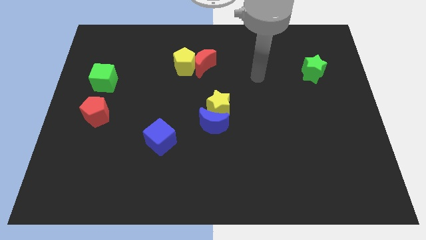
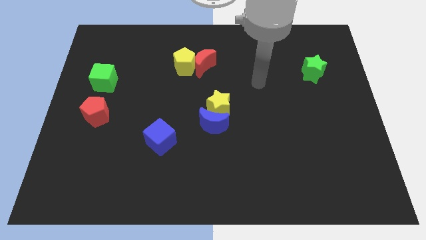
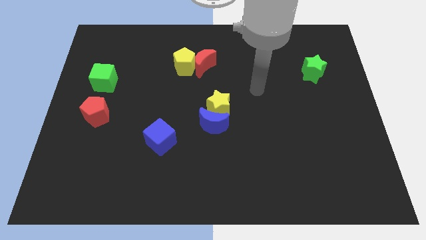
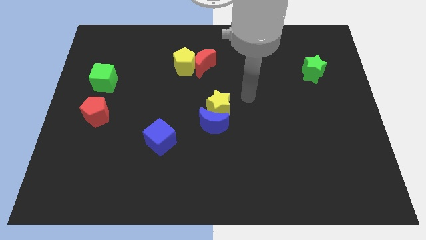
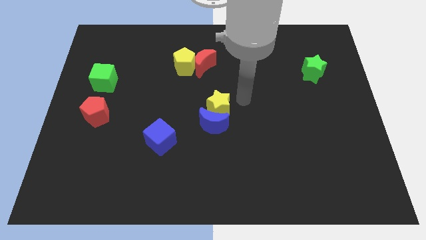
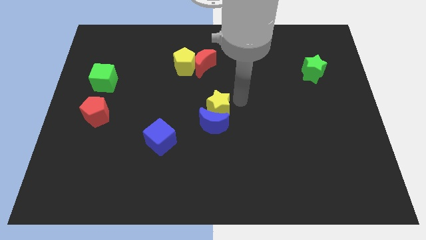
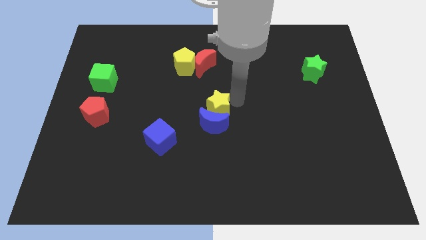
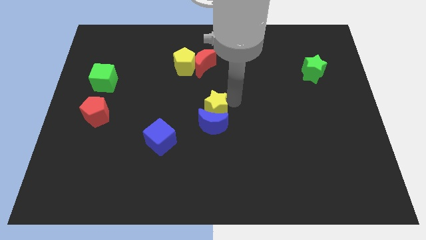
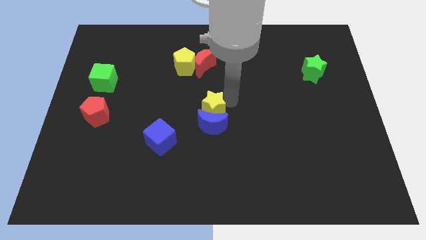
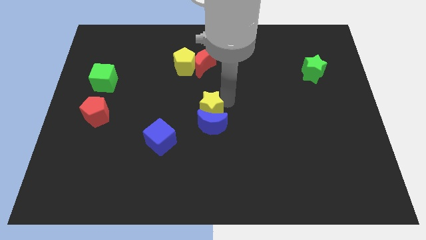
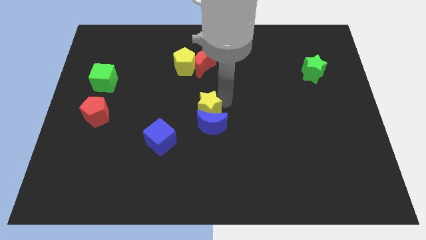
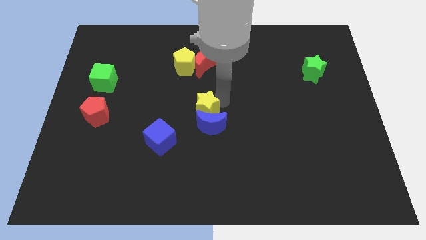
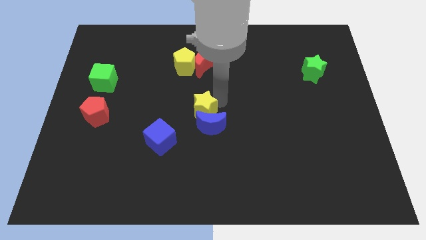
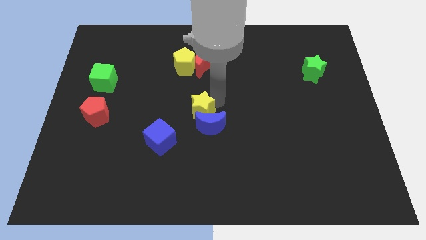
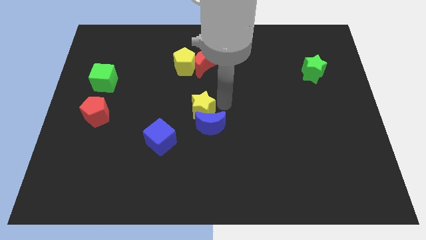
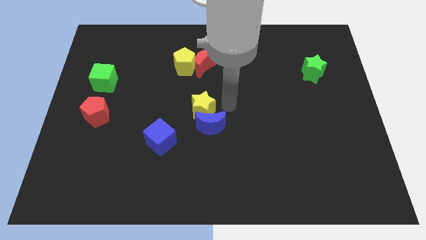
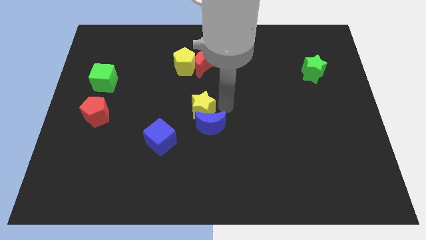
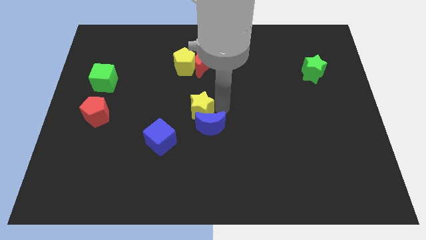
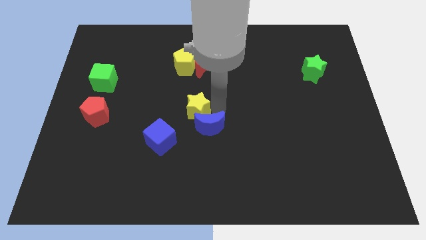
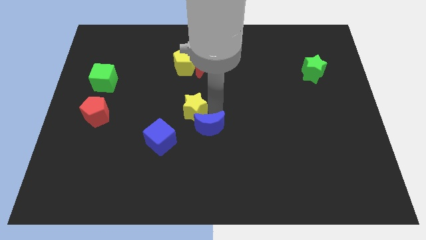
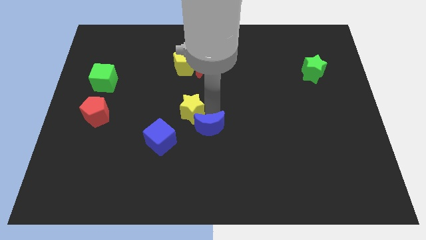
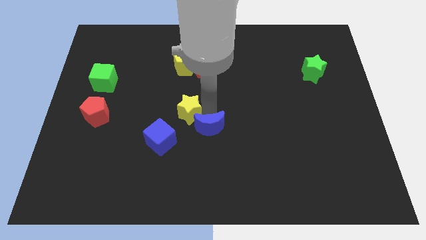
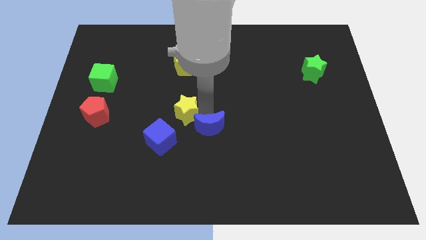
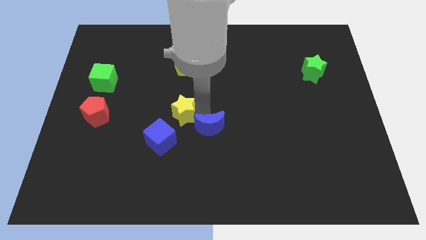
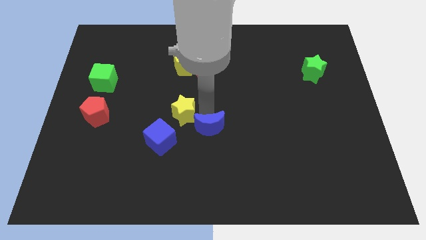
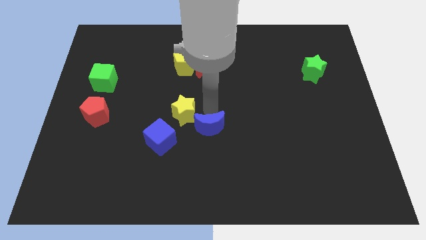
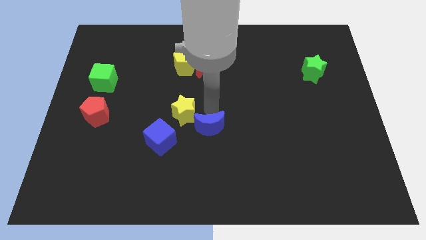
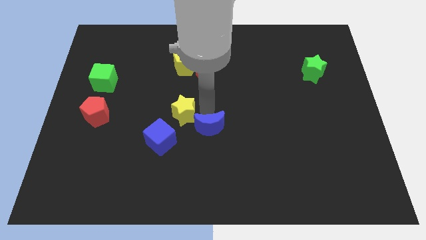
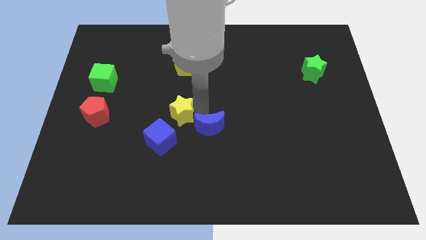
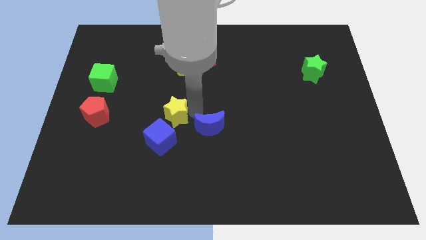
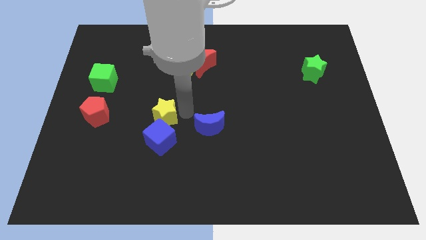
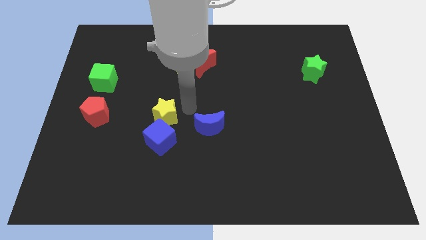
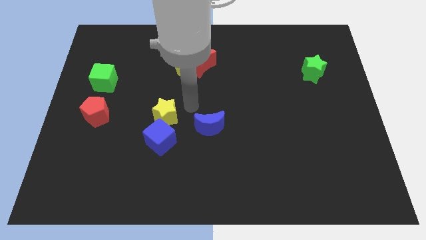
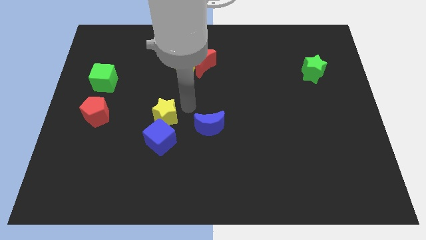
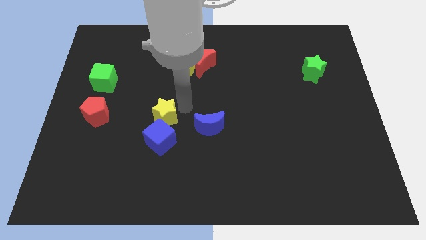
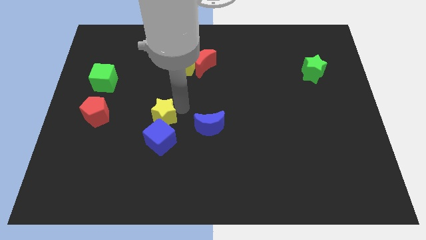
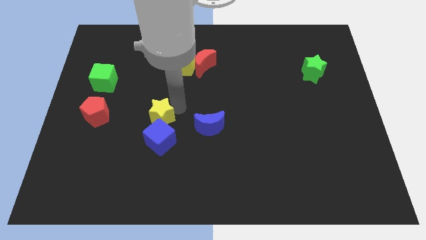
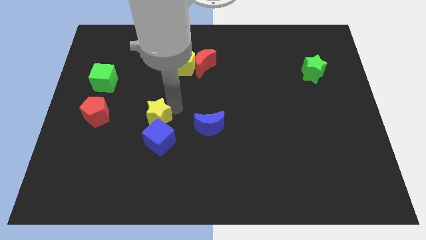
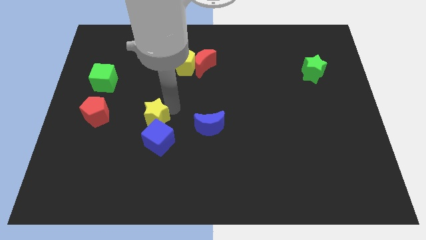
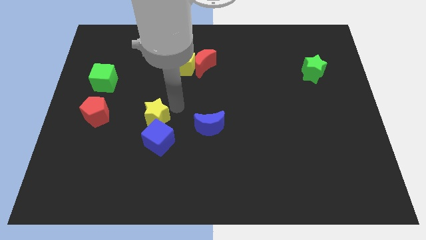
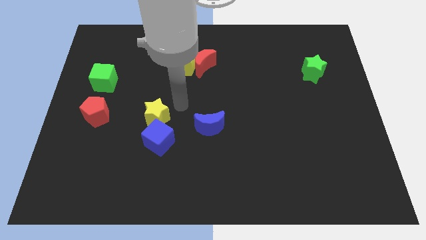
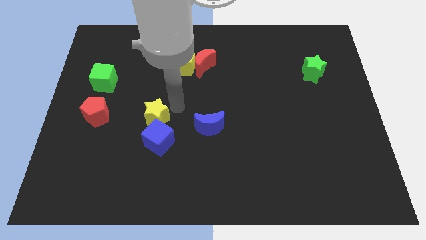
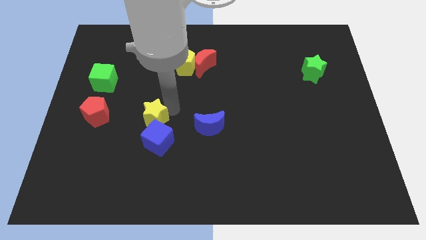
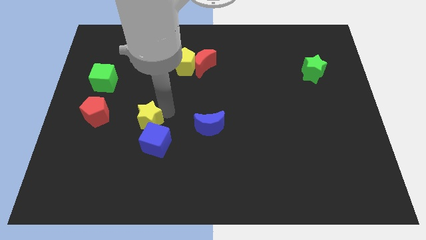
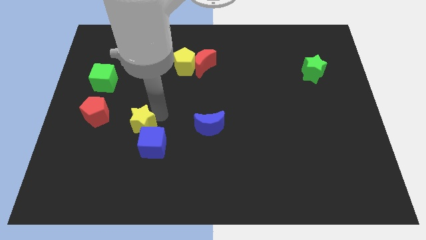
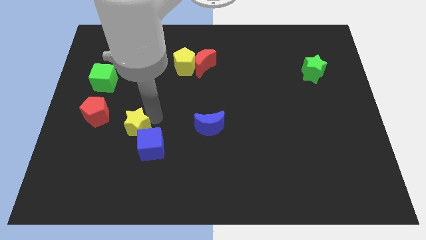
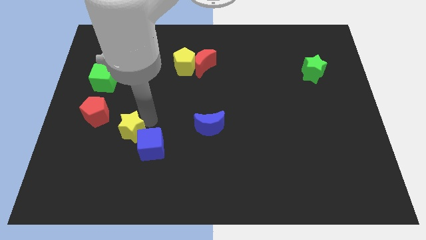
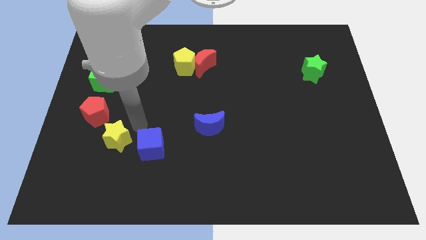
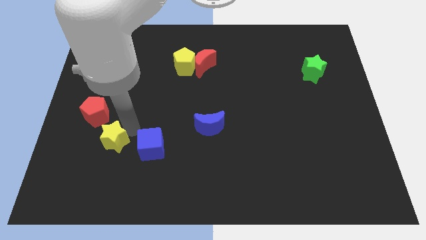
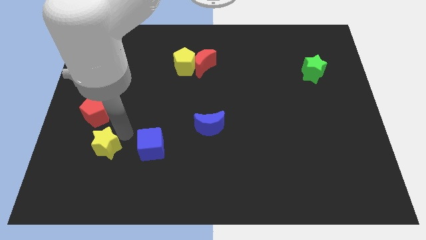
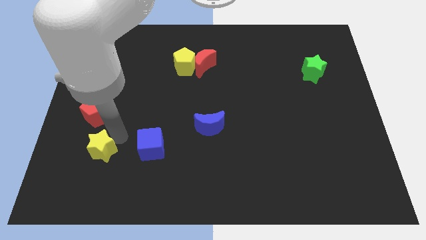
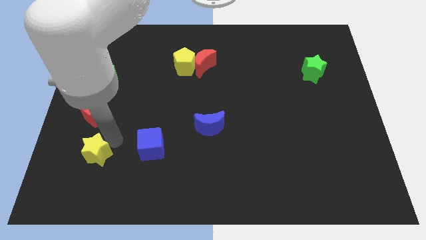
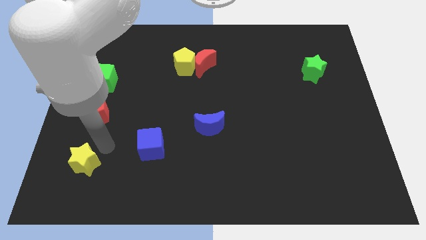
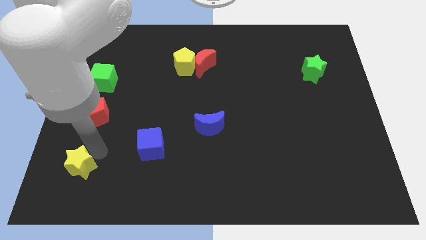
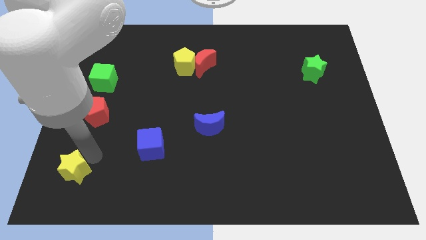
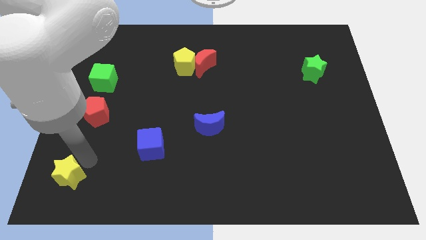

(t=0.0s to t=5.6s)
put the yellow star to the bottom left of the board

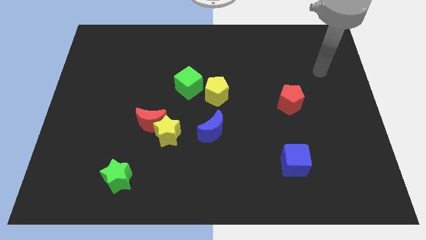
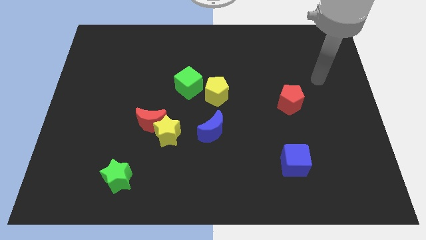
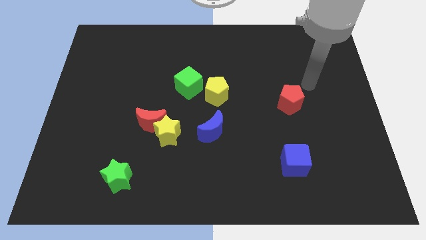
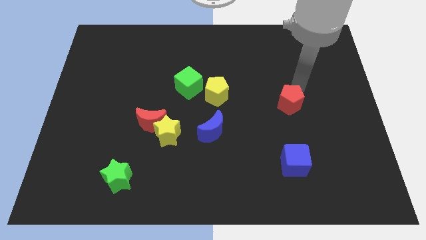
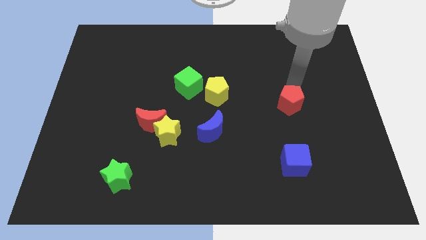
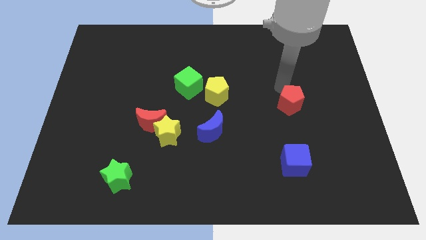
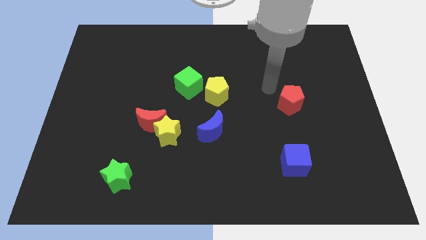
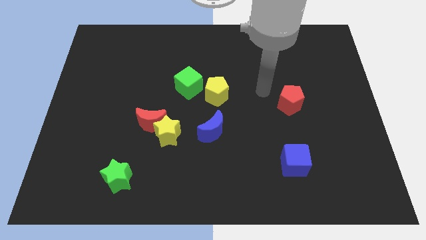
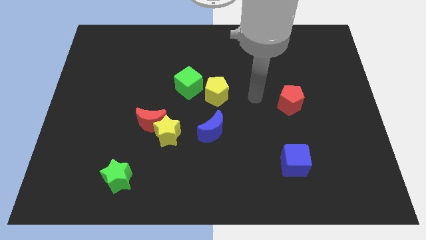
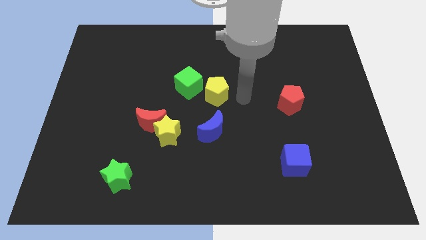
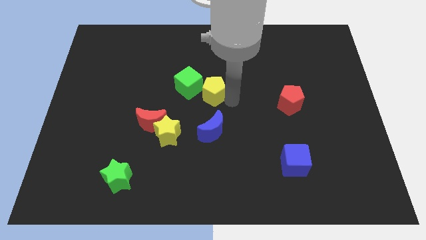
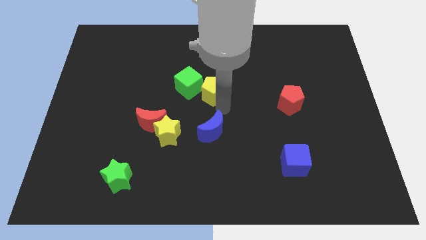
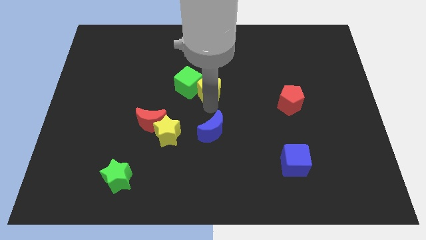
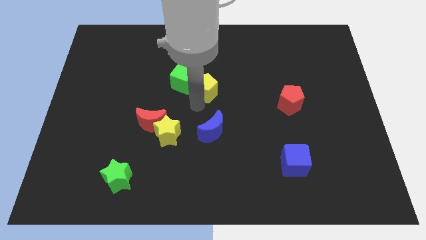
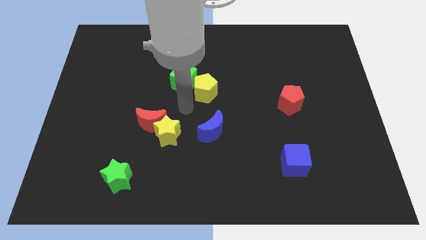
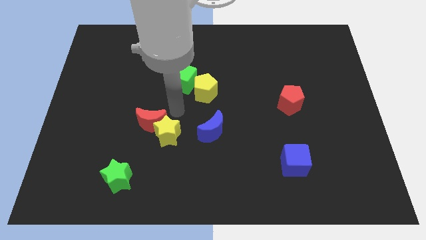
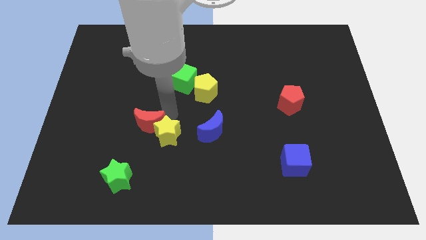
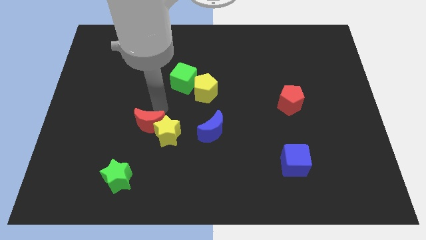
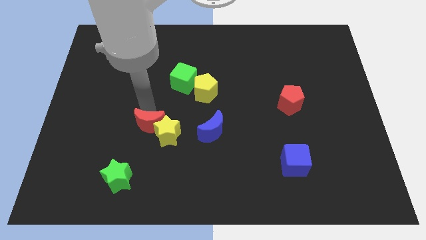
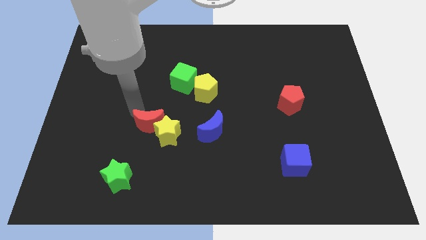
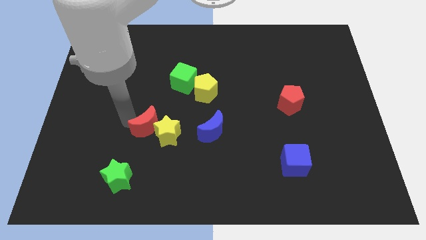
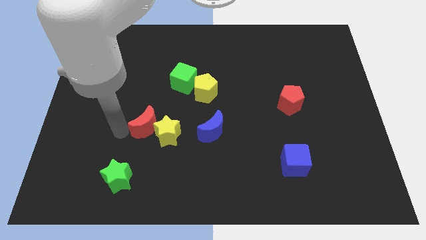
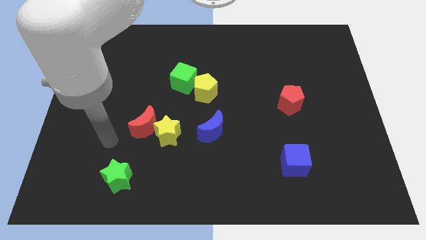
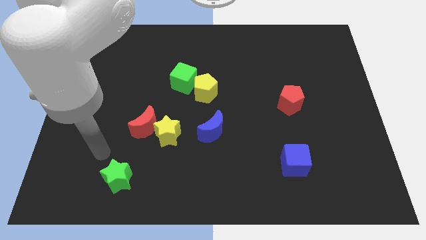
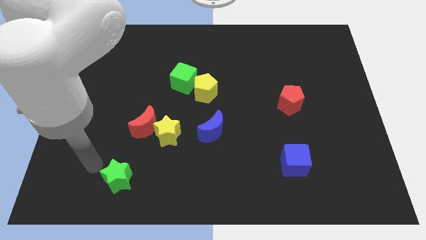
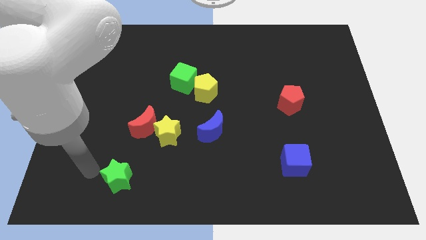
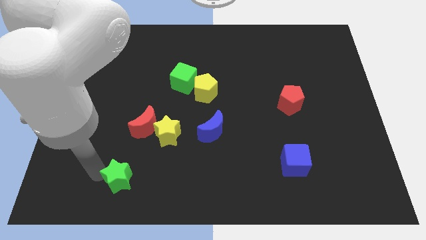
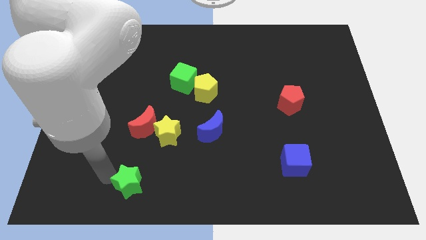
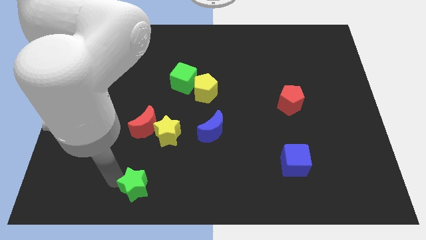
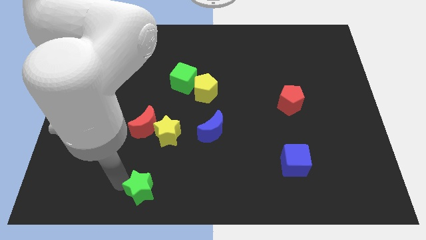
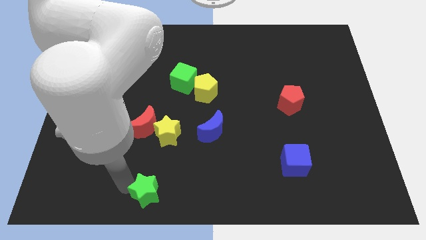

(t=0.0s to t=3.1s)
slide the green star to the bottom side
